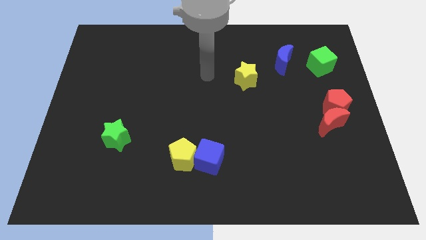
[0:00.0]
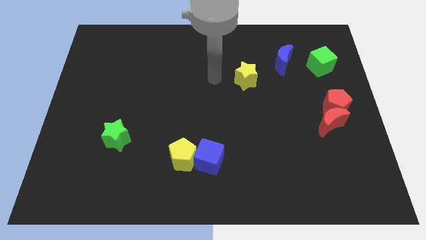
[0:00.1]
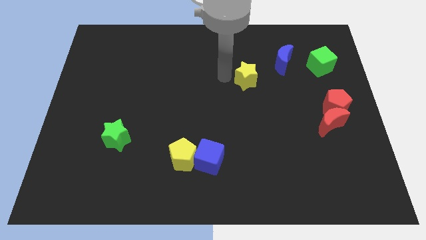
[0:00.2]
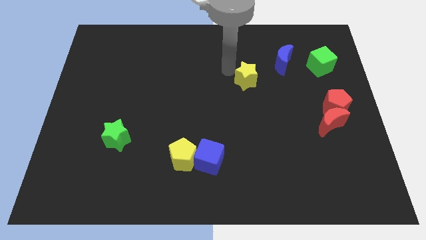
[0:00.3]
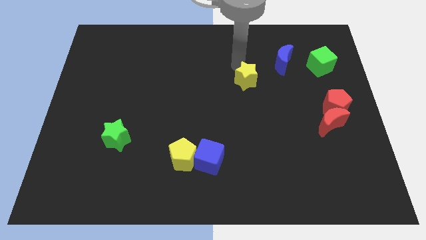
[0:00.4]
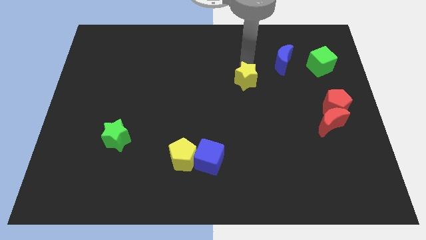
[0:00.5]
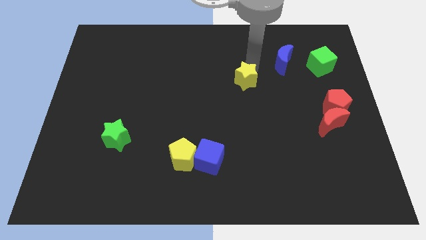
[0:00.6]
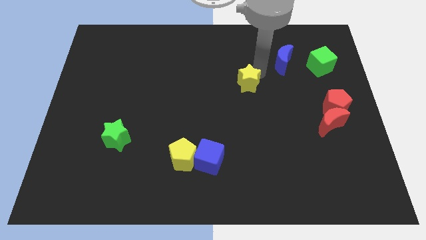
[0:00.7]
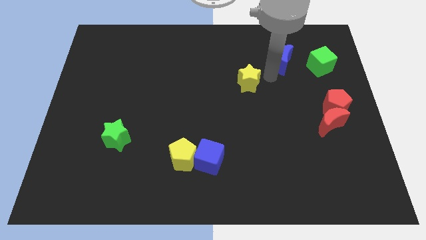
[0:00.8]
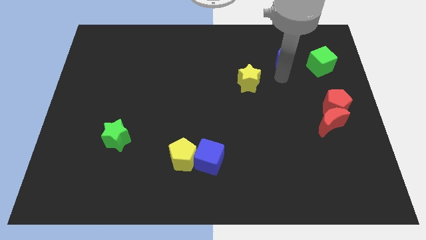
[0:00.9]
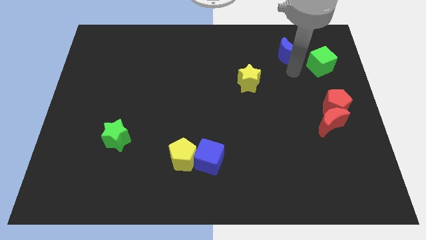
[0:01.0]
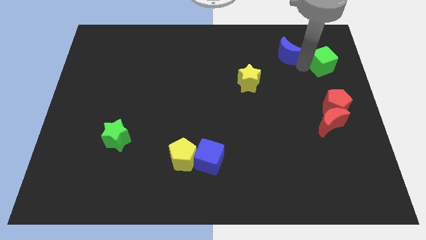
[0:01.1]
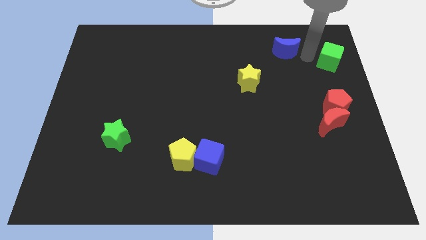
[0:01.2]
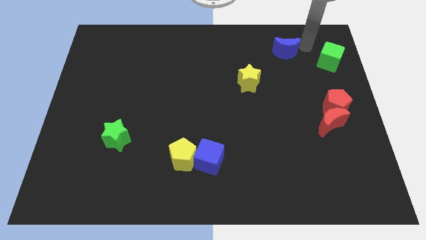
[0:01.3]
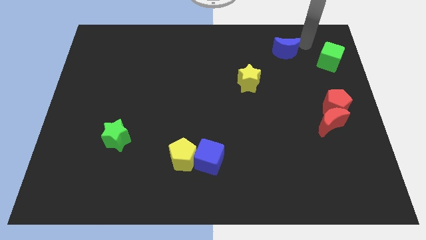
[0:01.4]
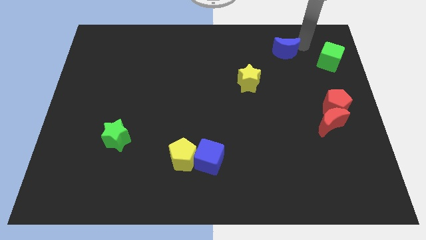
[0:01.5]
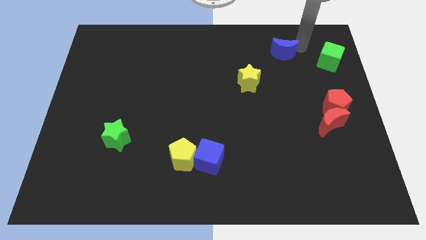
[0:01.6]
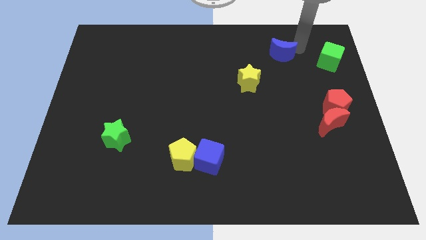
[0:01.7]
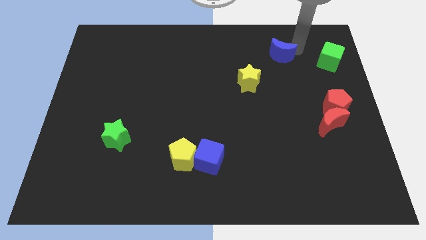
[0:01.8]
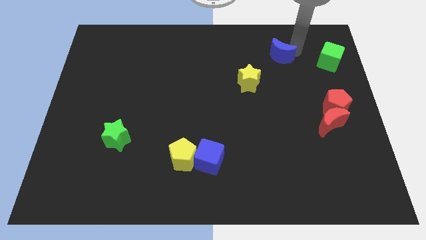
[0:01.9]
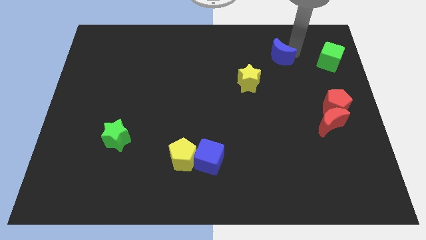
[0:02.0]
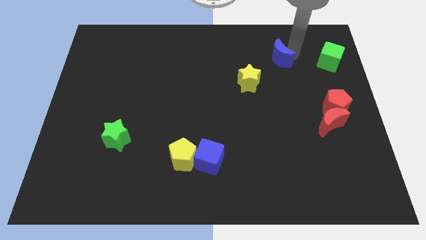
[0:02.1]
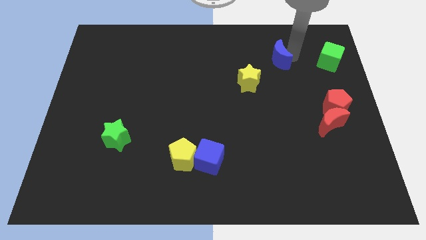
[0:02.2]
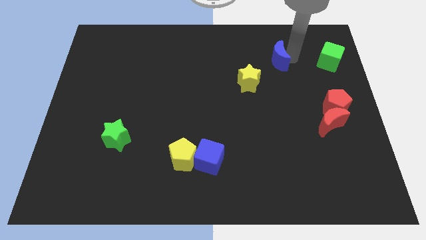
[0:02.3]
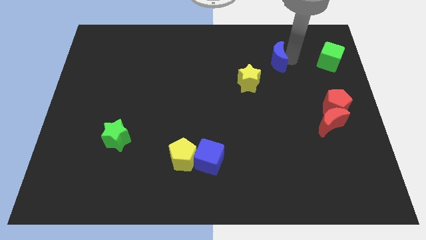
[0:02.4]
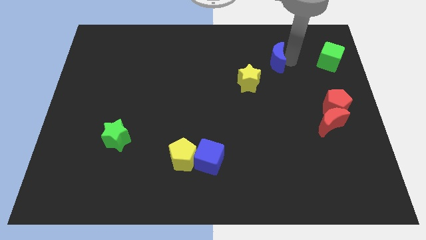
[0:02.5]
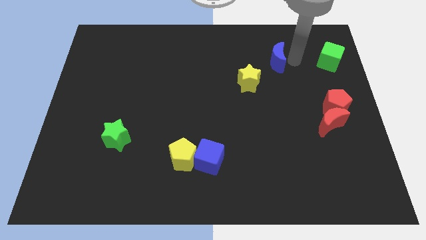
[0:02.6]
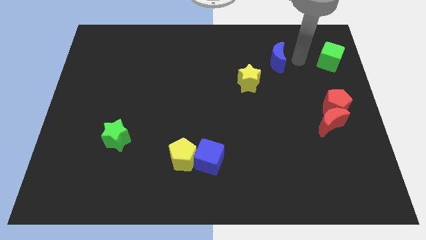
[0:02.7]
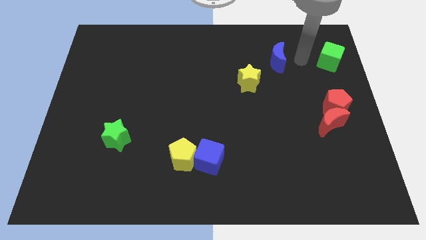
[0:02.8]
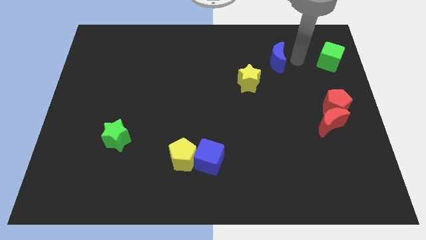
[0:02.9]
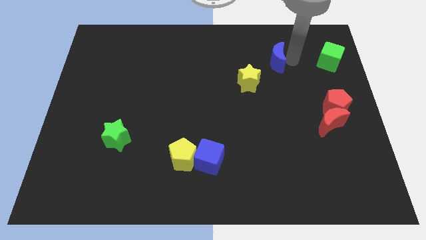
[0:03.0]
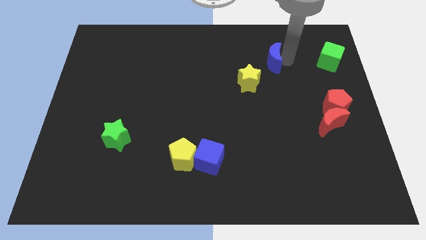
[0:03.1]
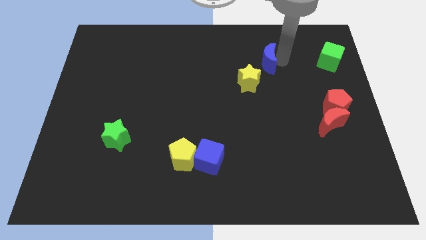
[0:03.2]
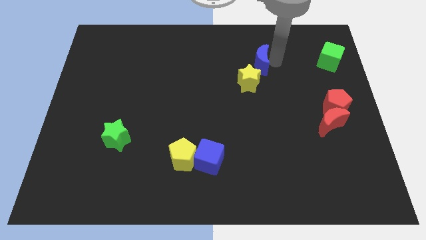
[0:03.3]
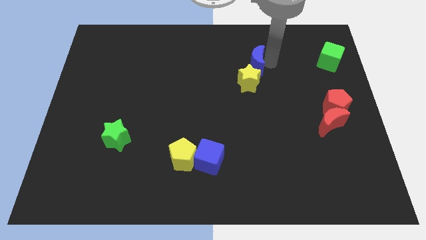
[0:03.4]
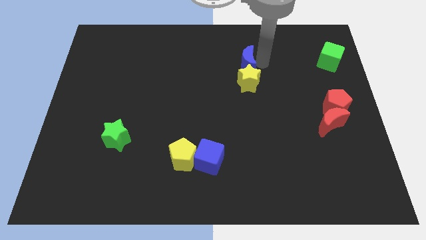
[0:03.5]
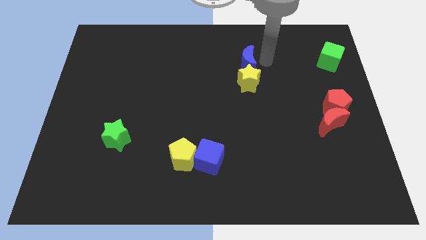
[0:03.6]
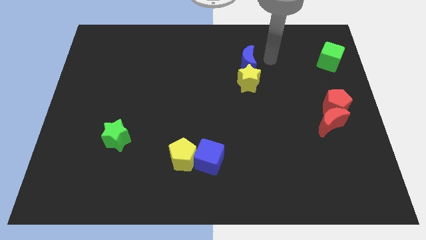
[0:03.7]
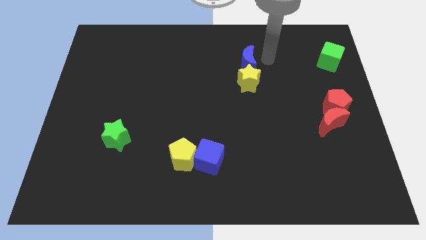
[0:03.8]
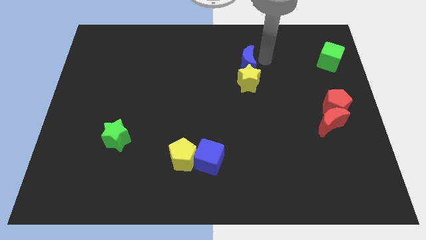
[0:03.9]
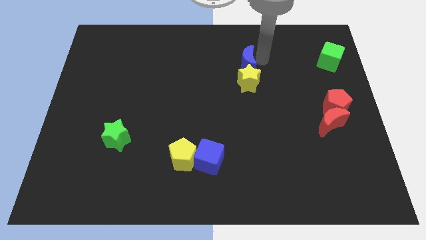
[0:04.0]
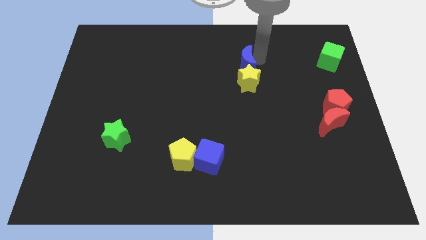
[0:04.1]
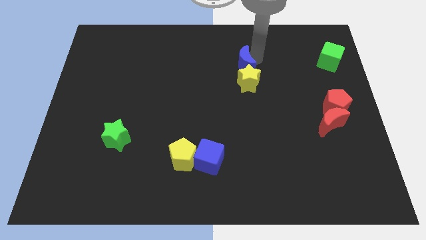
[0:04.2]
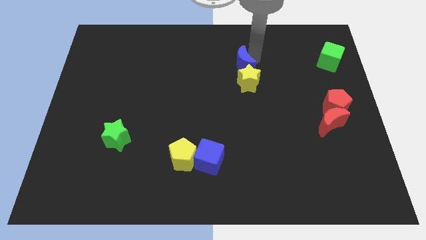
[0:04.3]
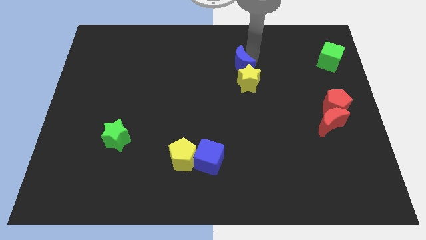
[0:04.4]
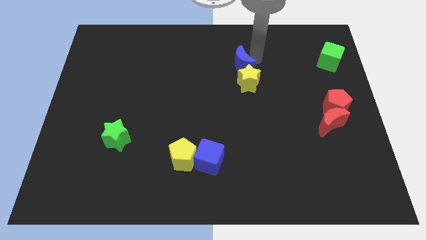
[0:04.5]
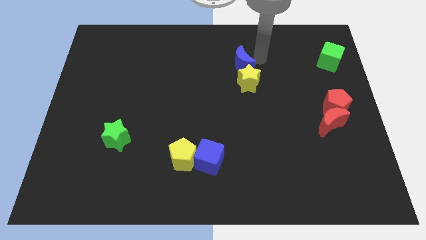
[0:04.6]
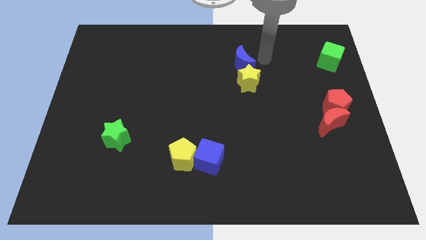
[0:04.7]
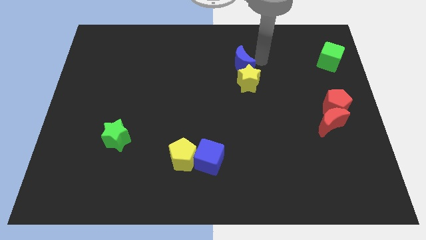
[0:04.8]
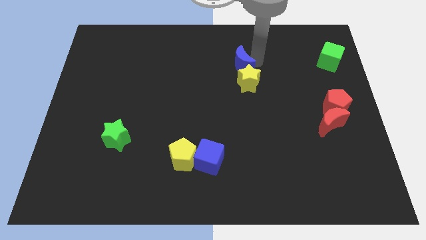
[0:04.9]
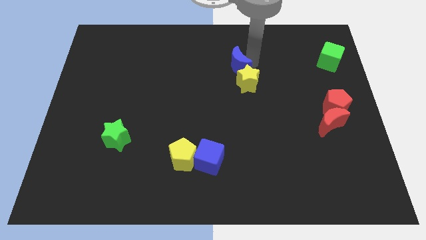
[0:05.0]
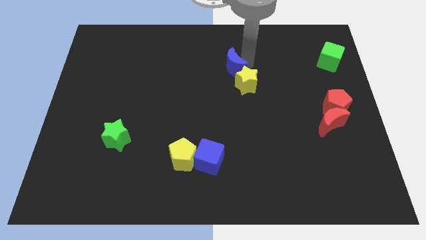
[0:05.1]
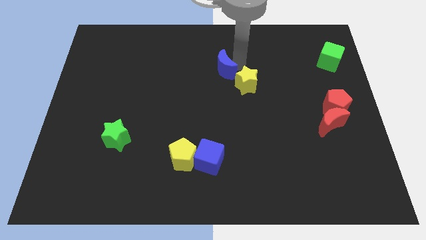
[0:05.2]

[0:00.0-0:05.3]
put the blue moon to the left of the yellow star

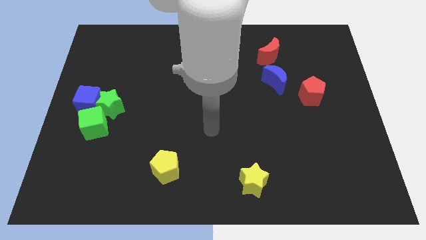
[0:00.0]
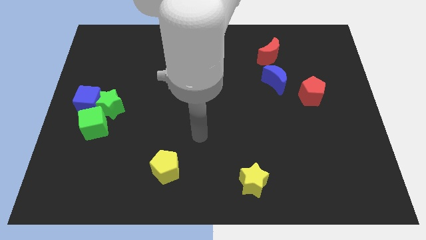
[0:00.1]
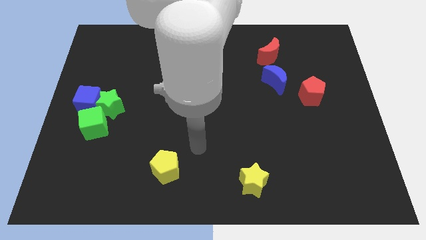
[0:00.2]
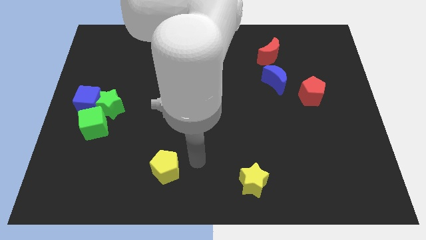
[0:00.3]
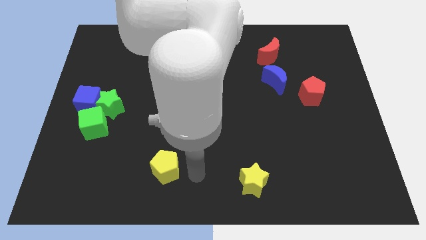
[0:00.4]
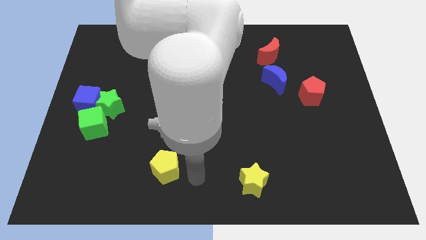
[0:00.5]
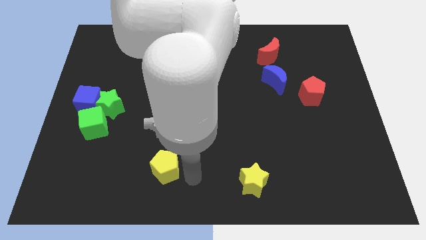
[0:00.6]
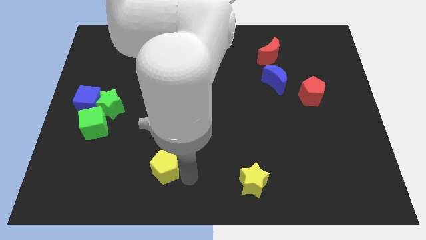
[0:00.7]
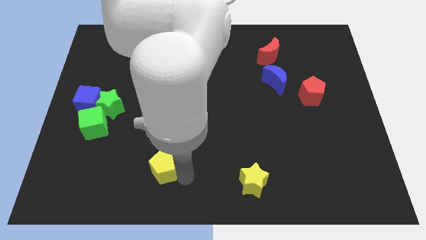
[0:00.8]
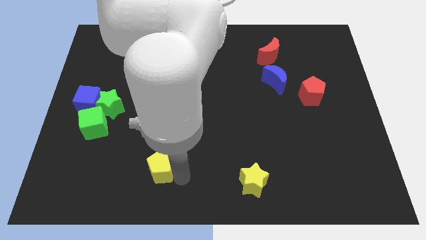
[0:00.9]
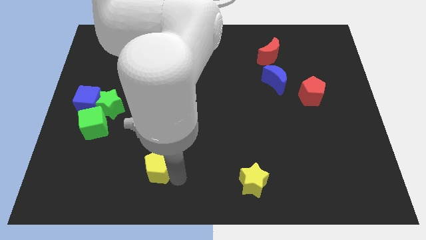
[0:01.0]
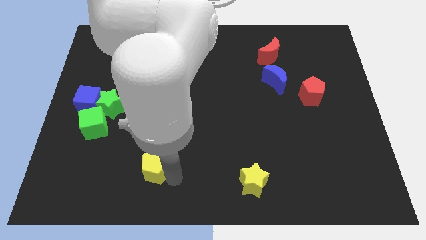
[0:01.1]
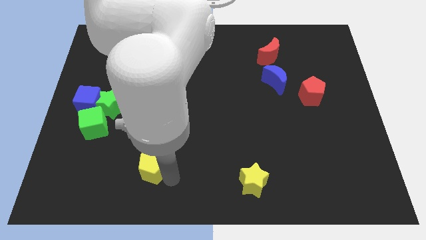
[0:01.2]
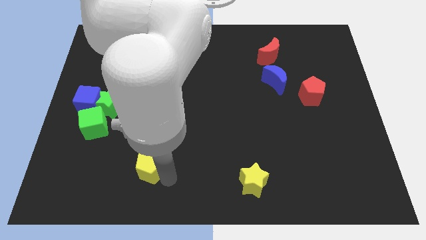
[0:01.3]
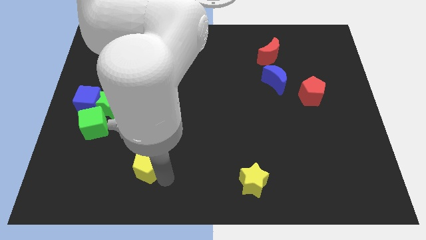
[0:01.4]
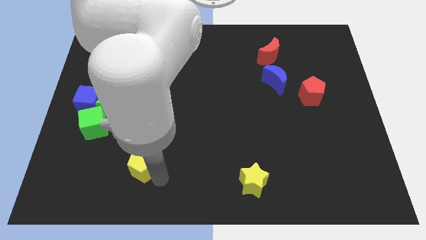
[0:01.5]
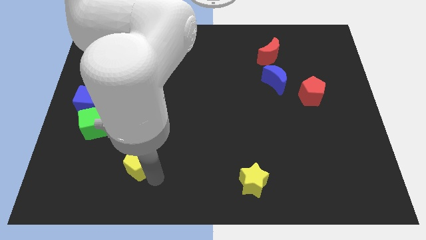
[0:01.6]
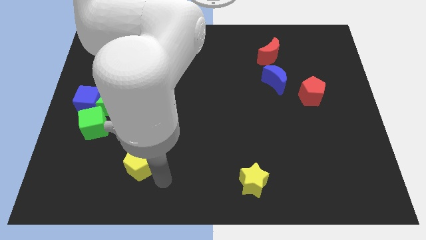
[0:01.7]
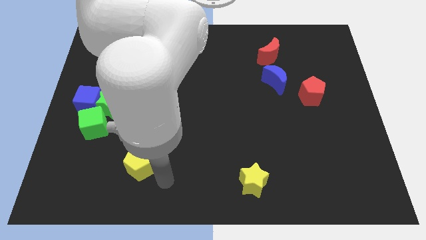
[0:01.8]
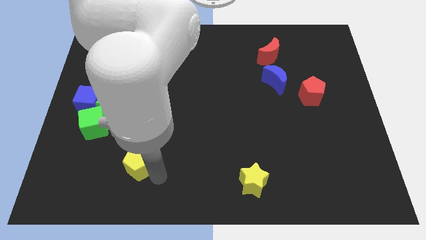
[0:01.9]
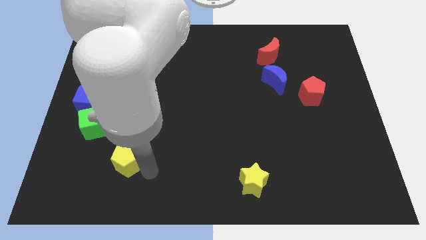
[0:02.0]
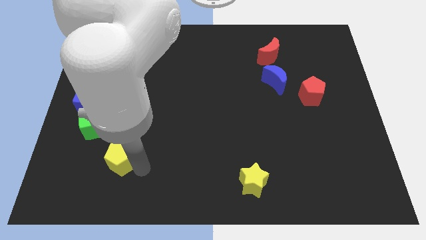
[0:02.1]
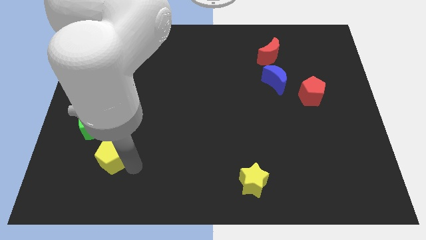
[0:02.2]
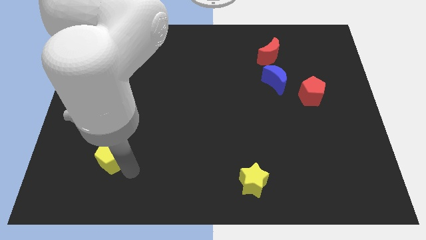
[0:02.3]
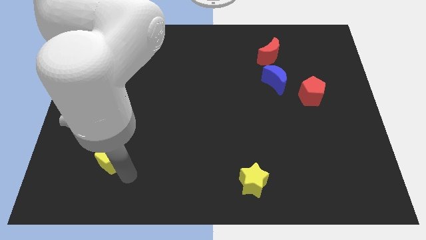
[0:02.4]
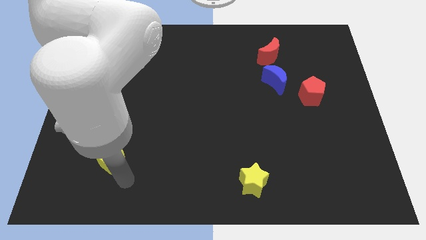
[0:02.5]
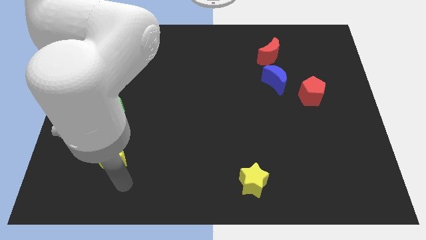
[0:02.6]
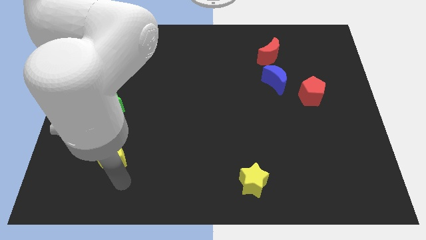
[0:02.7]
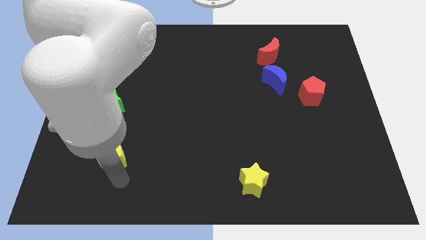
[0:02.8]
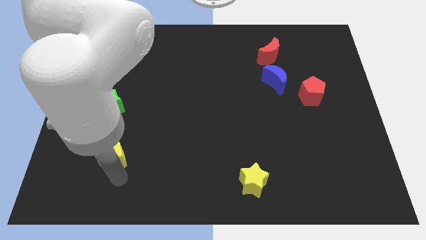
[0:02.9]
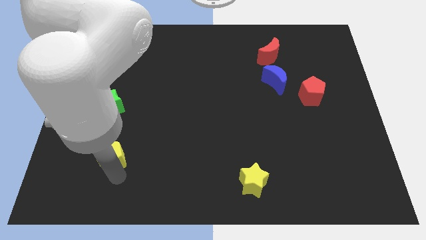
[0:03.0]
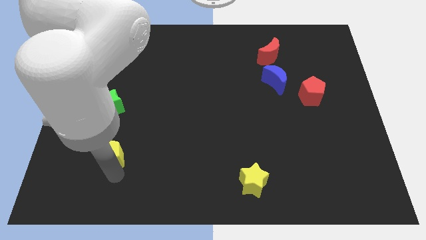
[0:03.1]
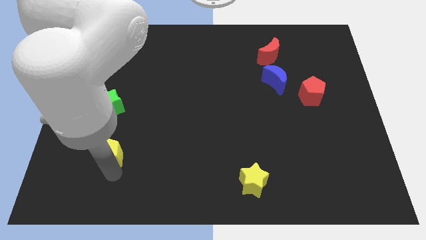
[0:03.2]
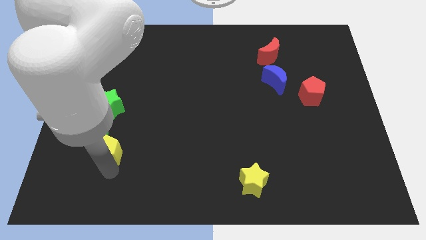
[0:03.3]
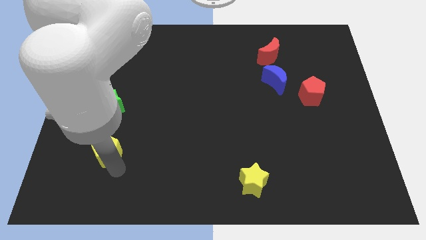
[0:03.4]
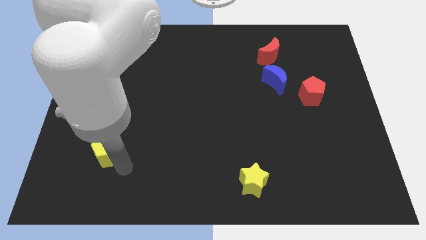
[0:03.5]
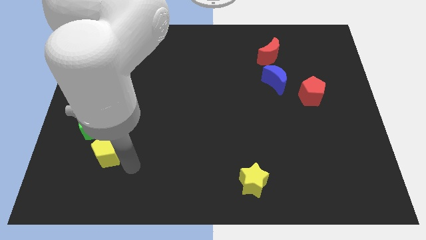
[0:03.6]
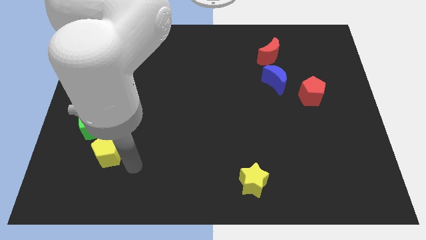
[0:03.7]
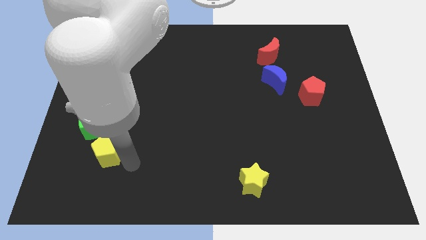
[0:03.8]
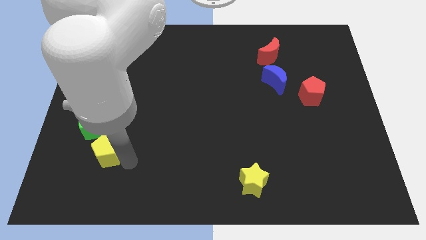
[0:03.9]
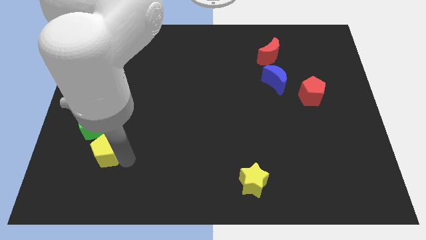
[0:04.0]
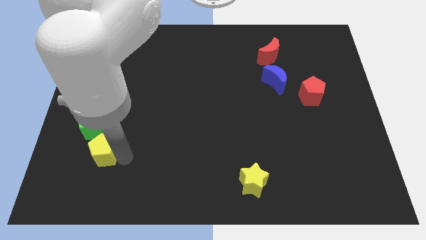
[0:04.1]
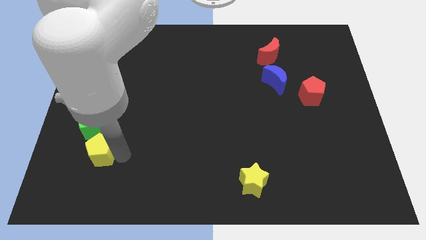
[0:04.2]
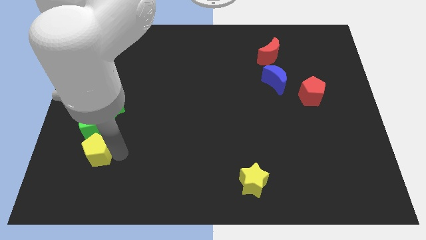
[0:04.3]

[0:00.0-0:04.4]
move the yellow pentagon below the blue cube
